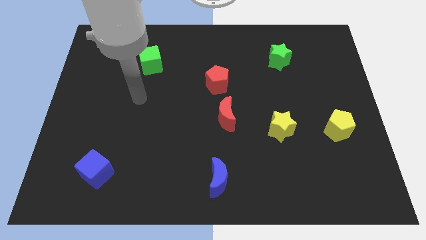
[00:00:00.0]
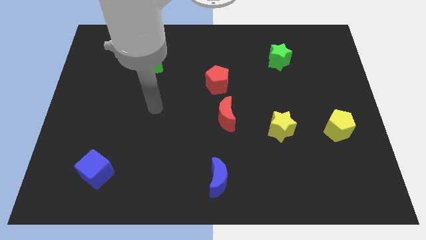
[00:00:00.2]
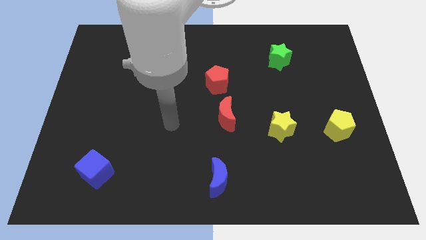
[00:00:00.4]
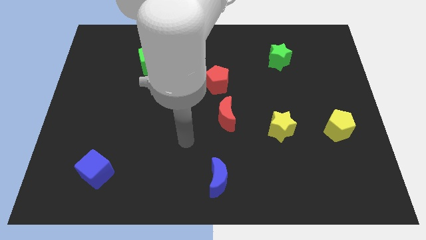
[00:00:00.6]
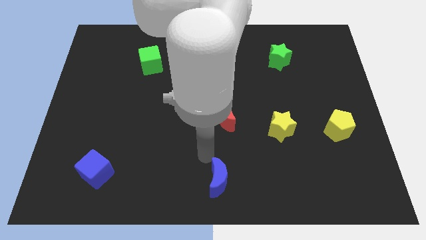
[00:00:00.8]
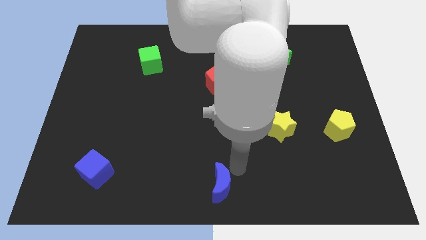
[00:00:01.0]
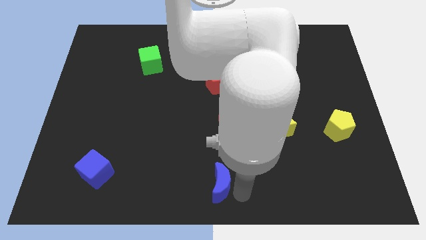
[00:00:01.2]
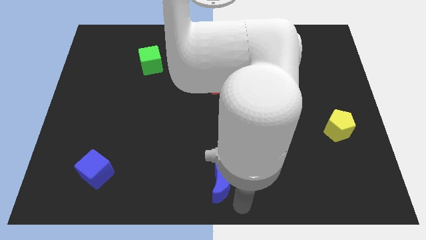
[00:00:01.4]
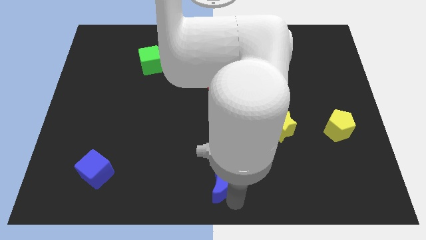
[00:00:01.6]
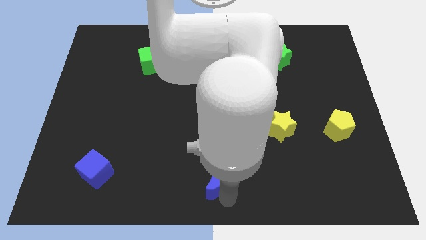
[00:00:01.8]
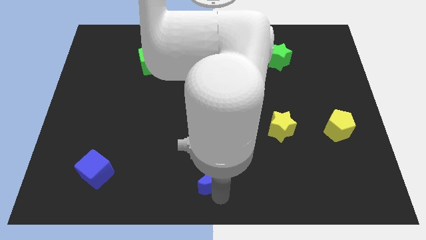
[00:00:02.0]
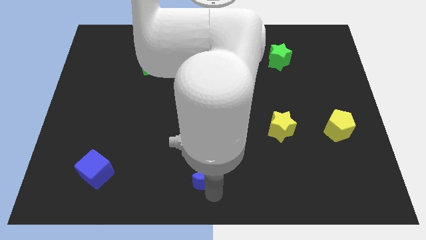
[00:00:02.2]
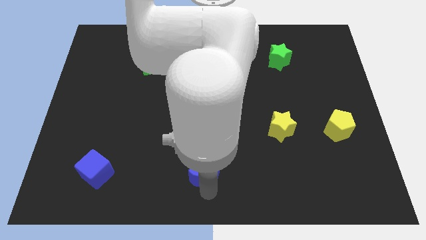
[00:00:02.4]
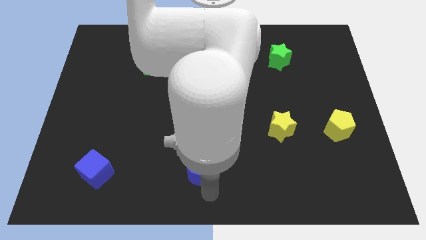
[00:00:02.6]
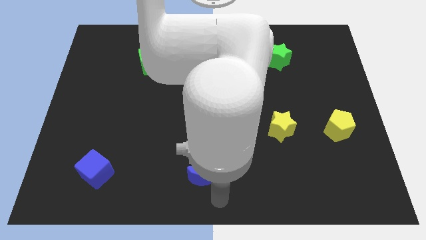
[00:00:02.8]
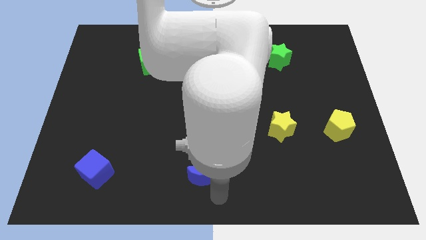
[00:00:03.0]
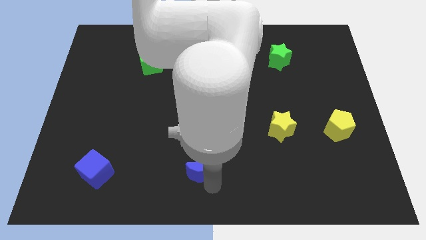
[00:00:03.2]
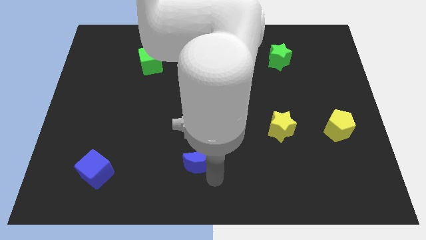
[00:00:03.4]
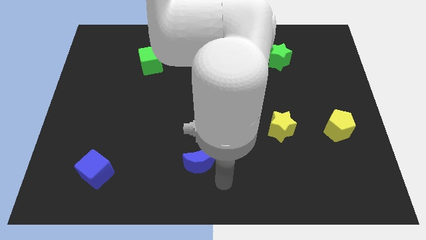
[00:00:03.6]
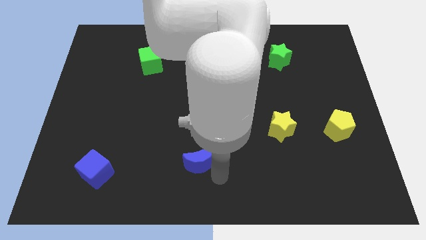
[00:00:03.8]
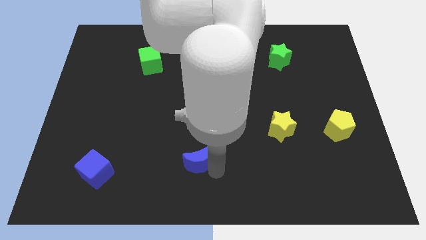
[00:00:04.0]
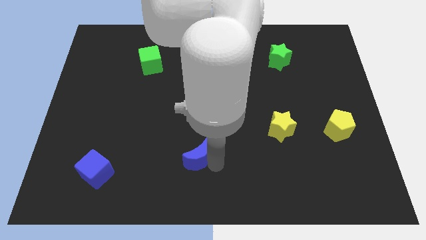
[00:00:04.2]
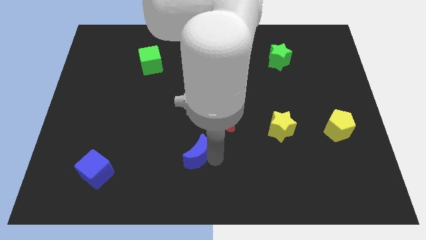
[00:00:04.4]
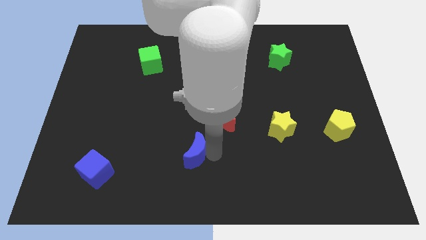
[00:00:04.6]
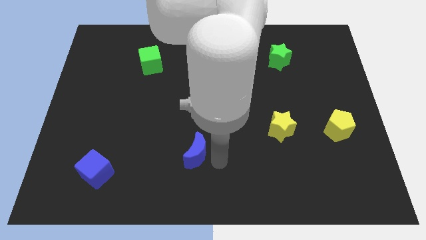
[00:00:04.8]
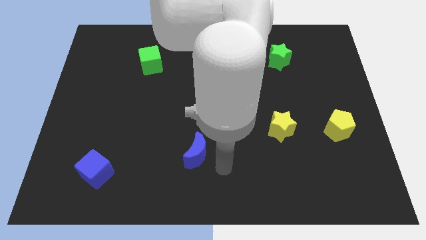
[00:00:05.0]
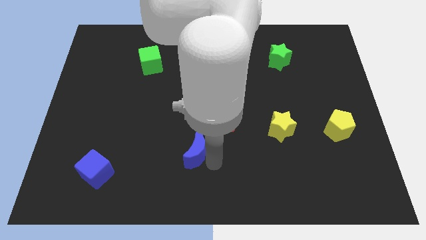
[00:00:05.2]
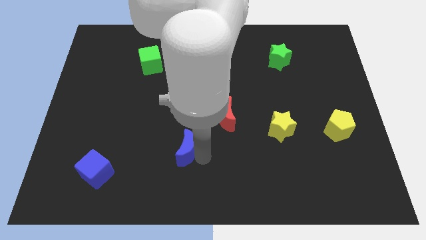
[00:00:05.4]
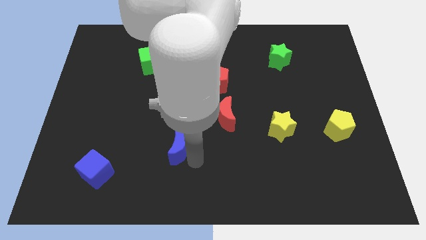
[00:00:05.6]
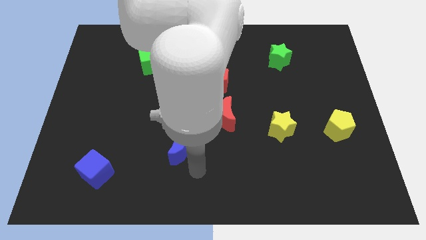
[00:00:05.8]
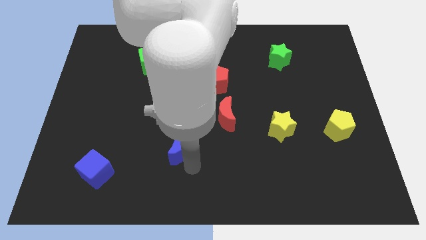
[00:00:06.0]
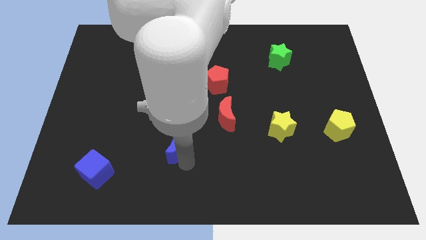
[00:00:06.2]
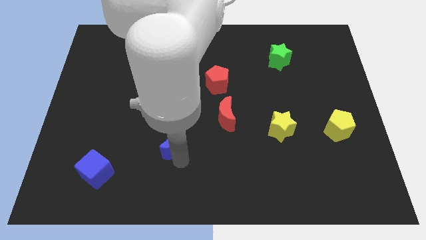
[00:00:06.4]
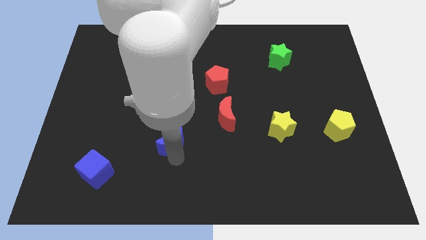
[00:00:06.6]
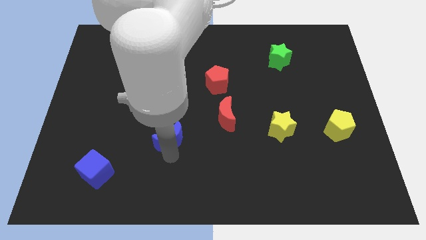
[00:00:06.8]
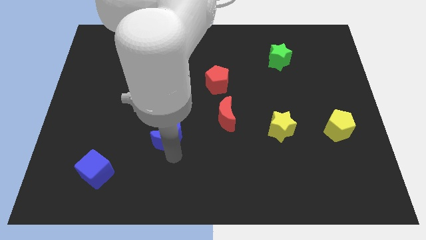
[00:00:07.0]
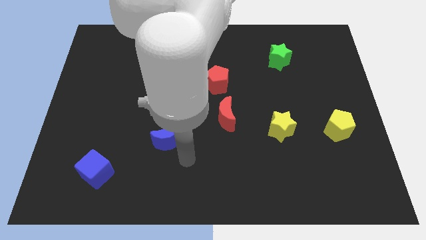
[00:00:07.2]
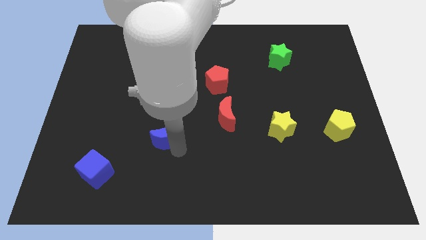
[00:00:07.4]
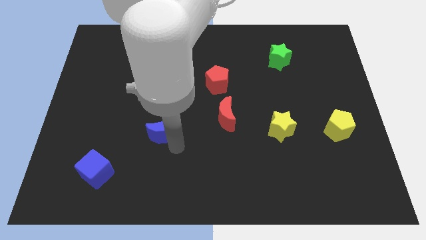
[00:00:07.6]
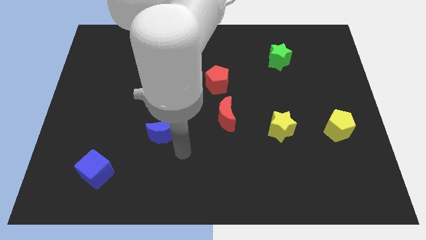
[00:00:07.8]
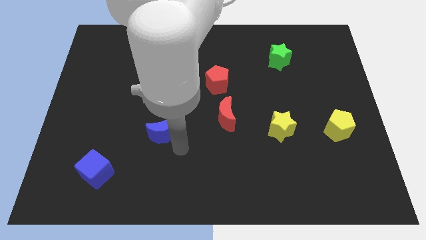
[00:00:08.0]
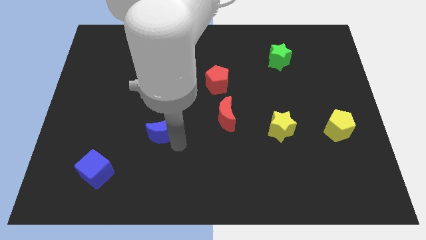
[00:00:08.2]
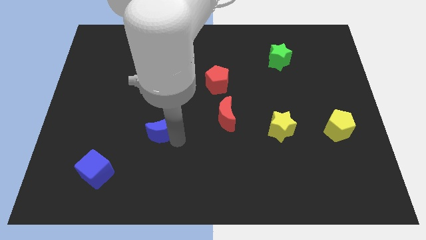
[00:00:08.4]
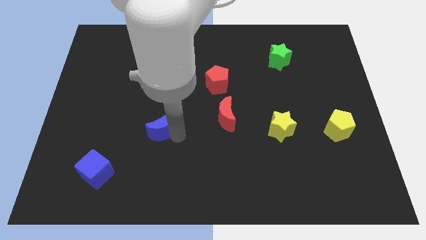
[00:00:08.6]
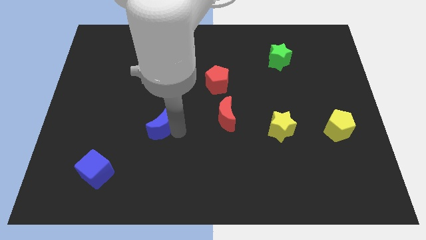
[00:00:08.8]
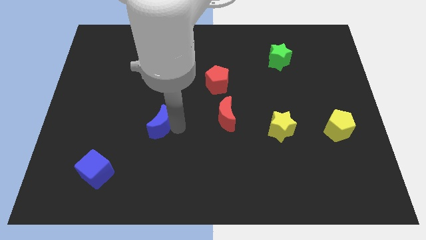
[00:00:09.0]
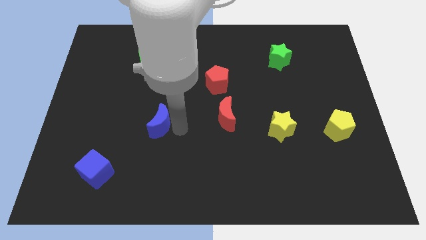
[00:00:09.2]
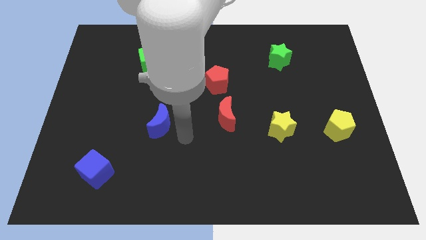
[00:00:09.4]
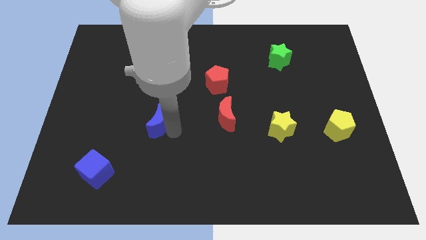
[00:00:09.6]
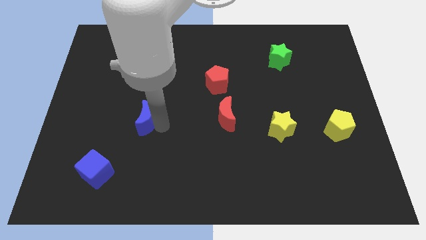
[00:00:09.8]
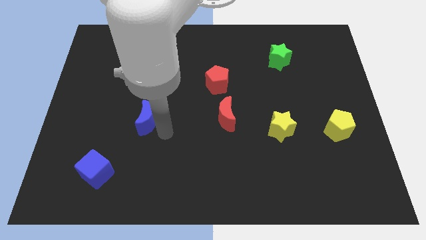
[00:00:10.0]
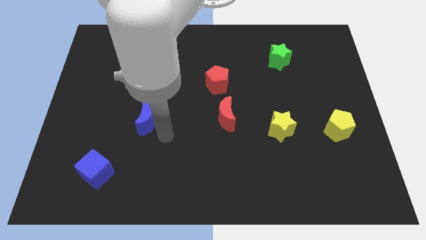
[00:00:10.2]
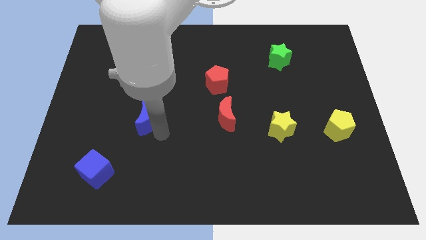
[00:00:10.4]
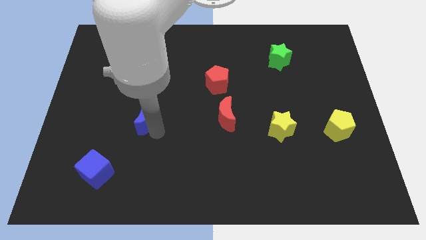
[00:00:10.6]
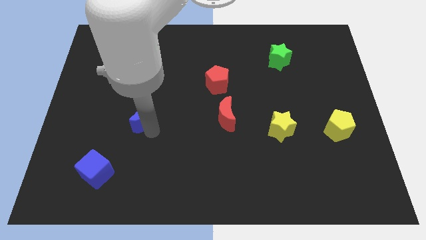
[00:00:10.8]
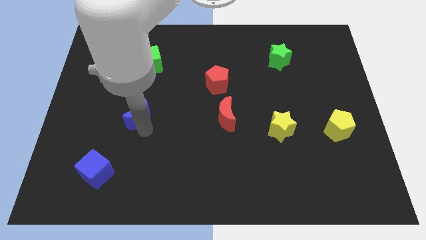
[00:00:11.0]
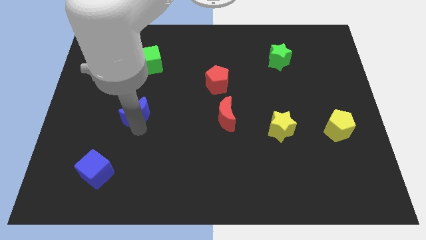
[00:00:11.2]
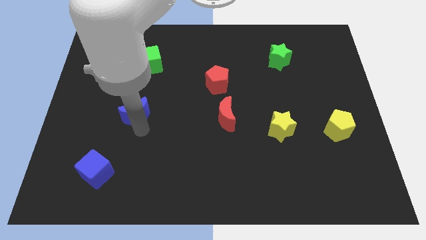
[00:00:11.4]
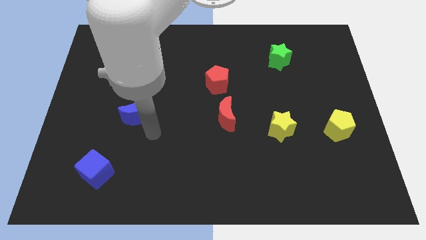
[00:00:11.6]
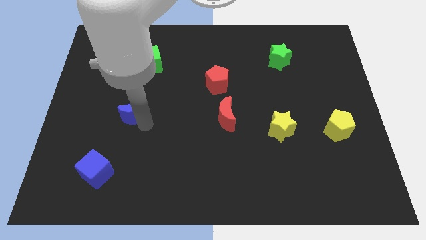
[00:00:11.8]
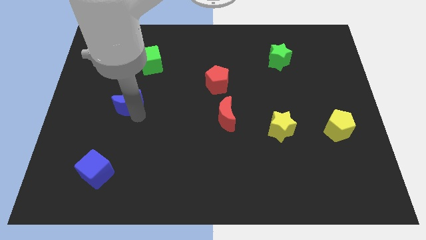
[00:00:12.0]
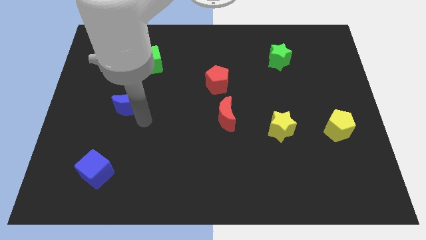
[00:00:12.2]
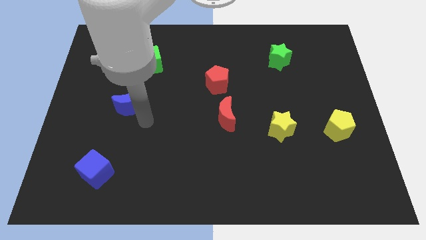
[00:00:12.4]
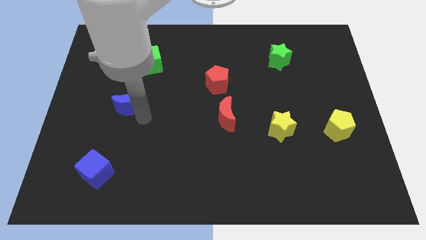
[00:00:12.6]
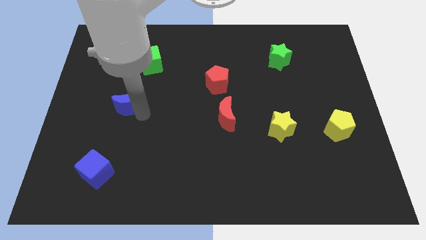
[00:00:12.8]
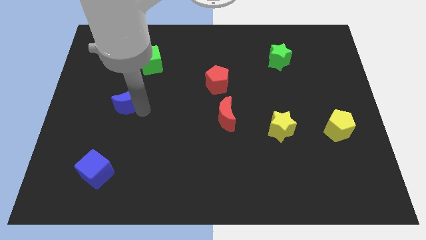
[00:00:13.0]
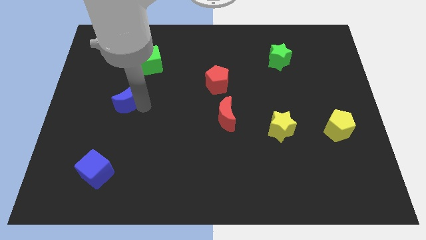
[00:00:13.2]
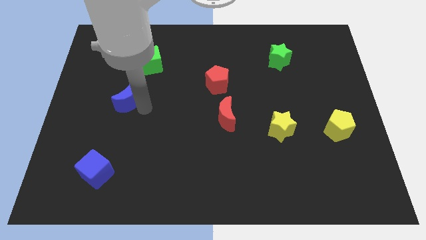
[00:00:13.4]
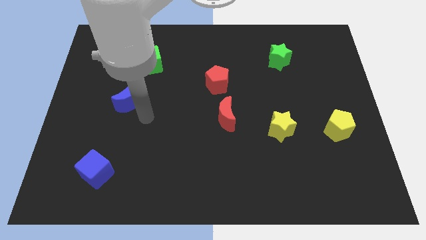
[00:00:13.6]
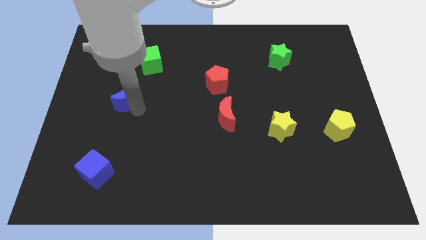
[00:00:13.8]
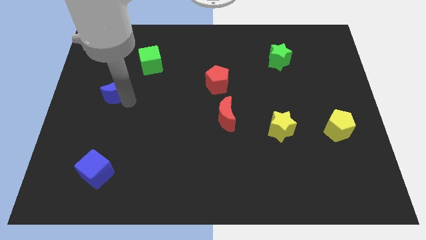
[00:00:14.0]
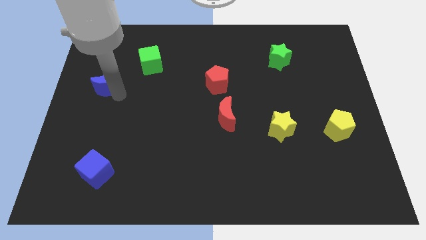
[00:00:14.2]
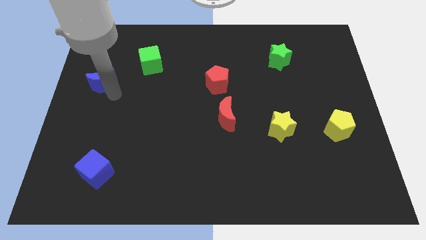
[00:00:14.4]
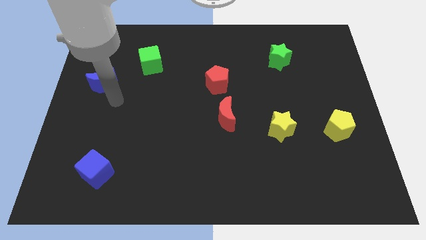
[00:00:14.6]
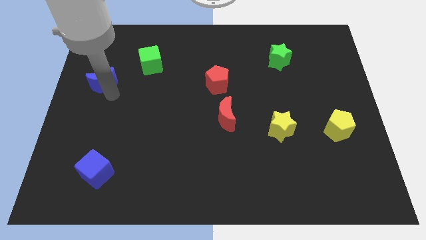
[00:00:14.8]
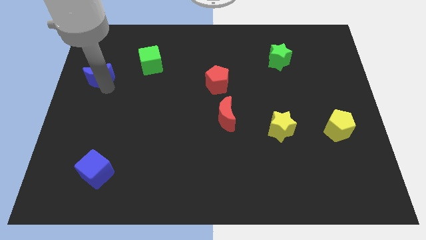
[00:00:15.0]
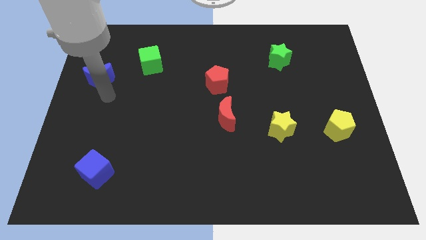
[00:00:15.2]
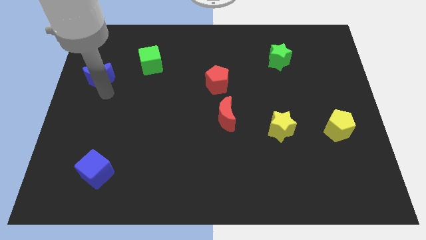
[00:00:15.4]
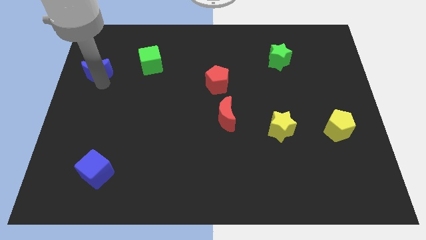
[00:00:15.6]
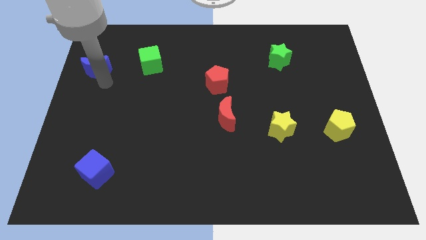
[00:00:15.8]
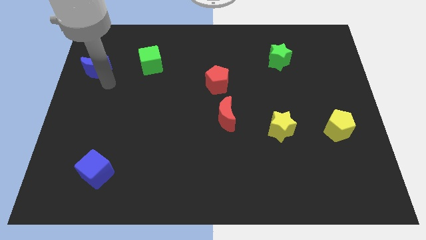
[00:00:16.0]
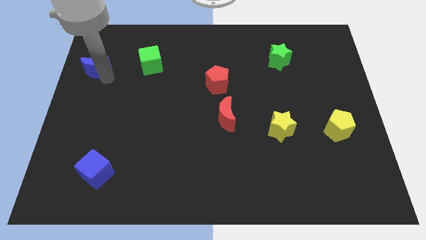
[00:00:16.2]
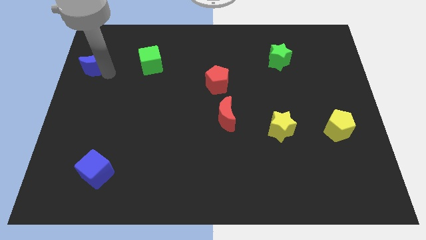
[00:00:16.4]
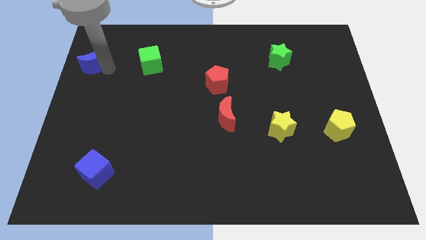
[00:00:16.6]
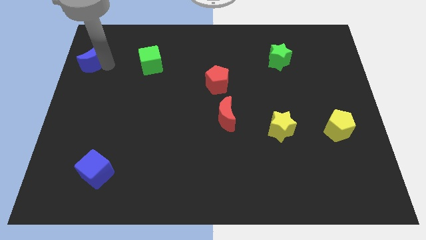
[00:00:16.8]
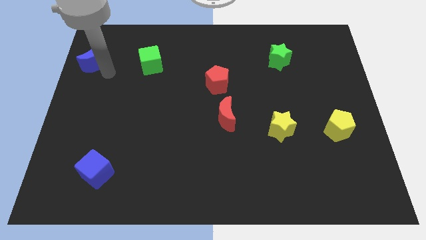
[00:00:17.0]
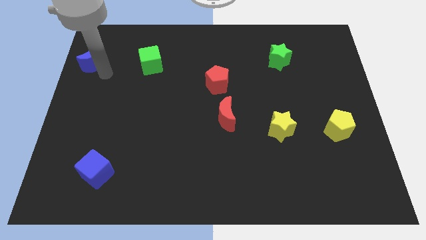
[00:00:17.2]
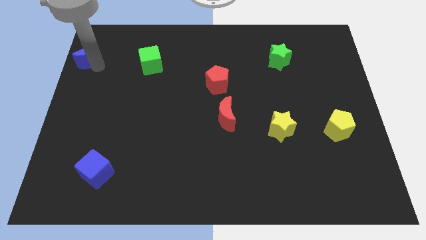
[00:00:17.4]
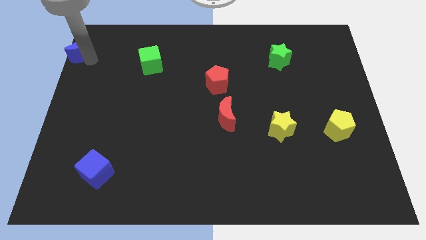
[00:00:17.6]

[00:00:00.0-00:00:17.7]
put the blue moon to the top left corner
